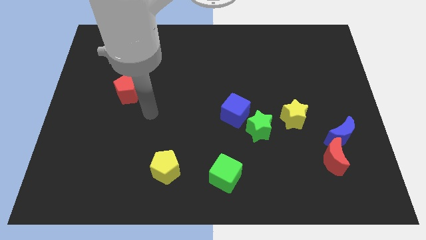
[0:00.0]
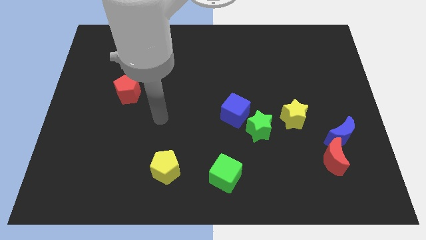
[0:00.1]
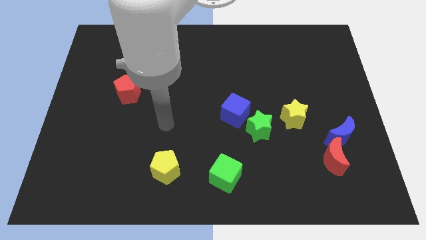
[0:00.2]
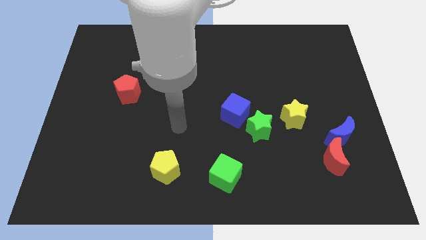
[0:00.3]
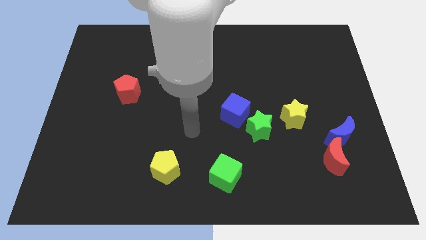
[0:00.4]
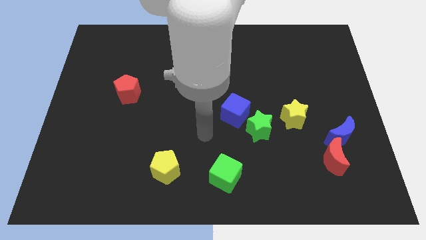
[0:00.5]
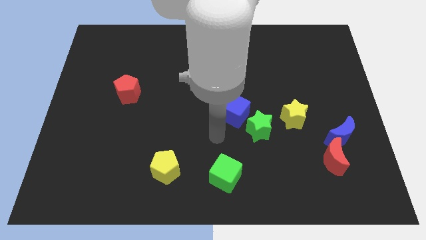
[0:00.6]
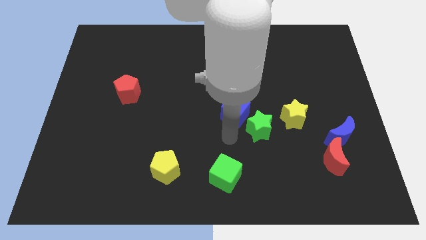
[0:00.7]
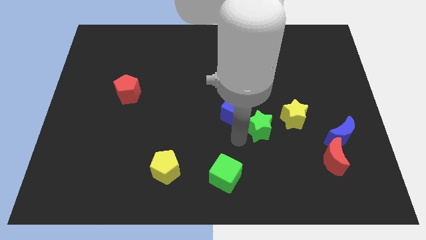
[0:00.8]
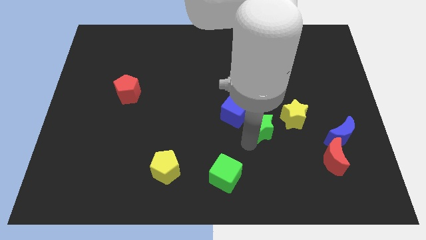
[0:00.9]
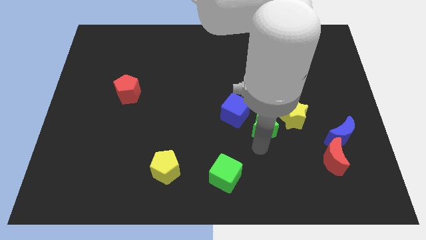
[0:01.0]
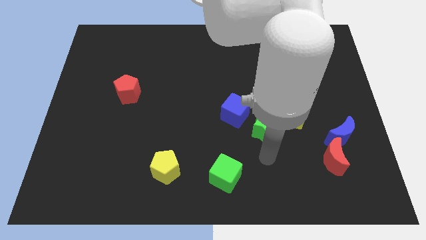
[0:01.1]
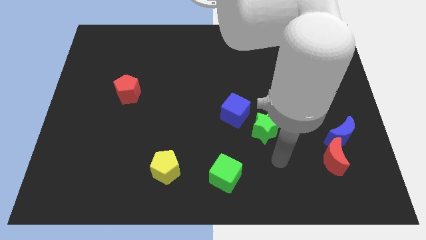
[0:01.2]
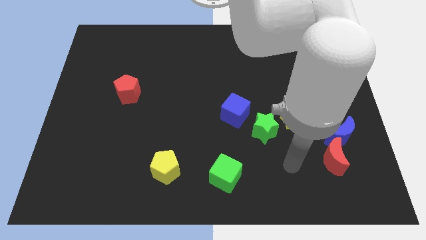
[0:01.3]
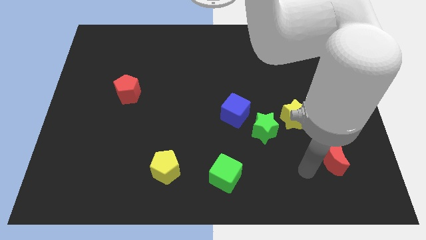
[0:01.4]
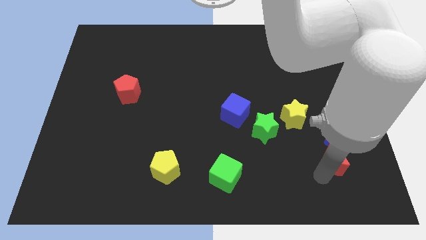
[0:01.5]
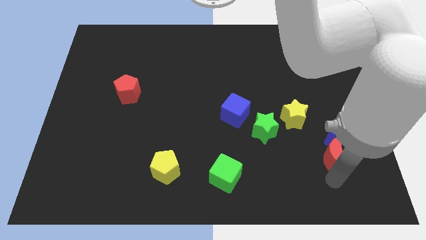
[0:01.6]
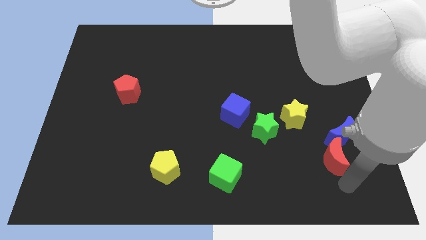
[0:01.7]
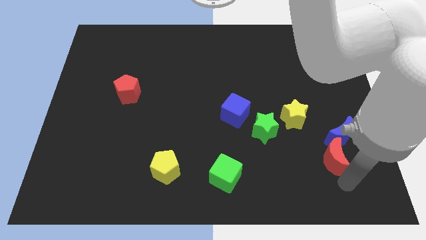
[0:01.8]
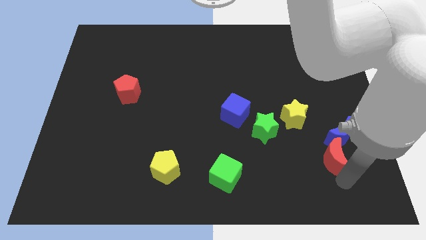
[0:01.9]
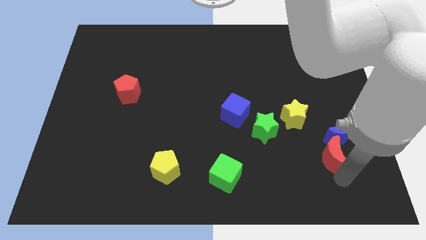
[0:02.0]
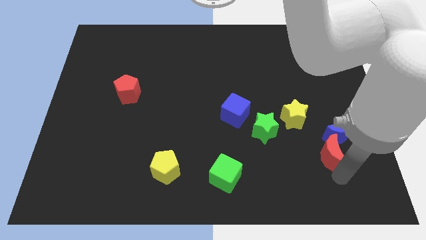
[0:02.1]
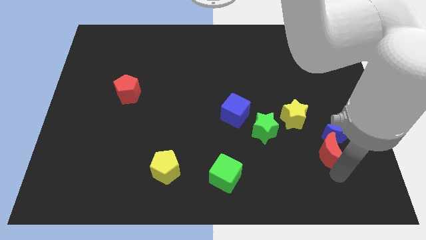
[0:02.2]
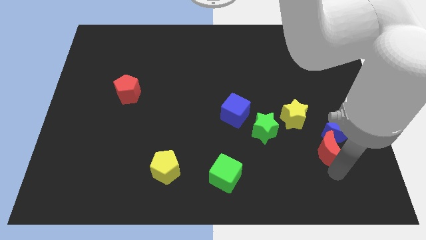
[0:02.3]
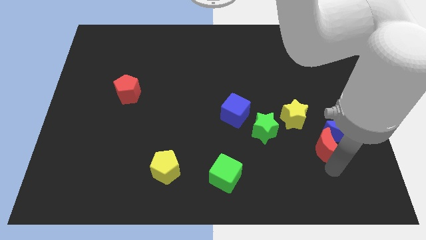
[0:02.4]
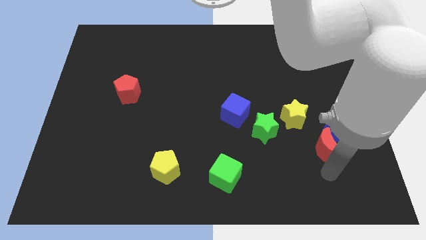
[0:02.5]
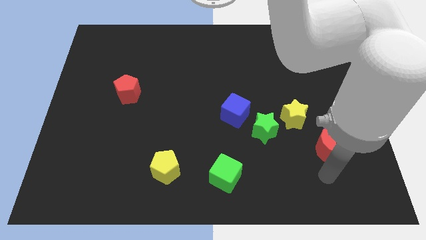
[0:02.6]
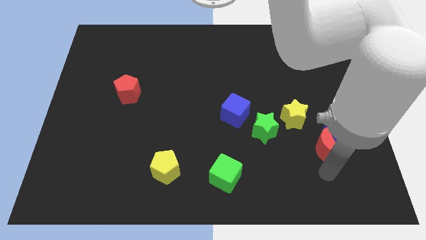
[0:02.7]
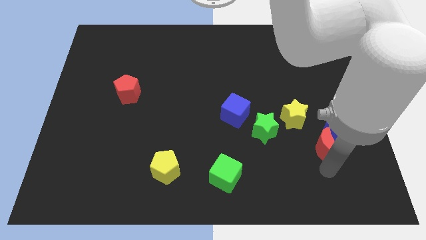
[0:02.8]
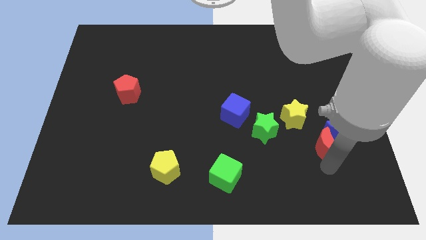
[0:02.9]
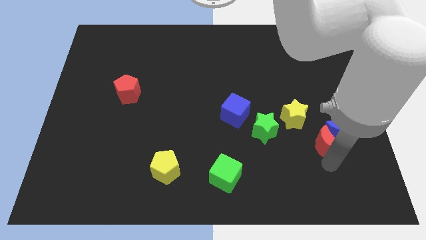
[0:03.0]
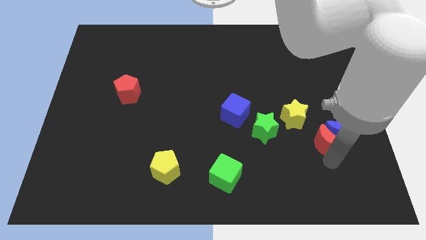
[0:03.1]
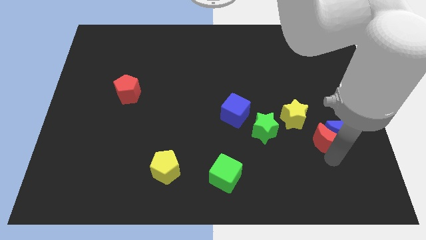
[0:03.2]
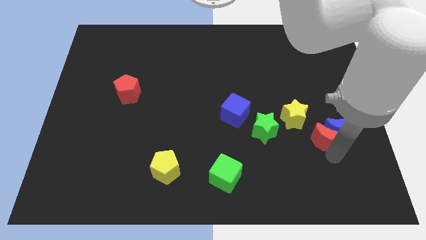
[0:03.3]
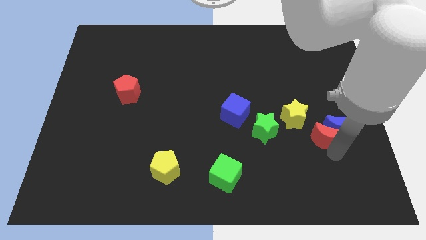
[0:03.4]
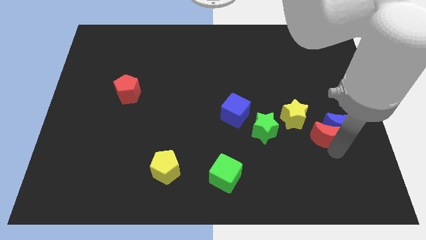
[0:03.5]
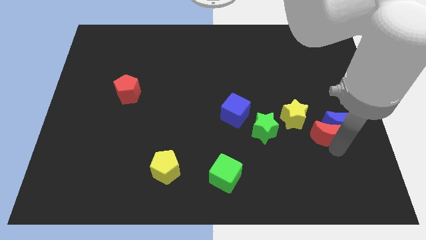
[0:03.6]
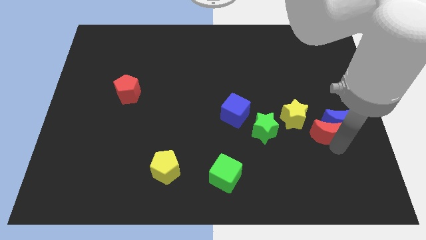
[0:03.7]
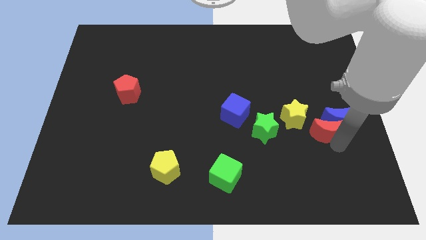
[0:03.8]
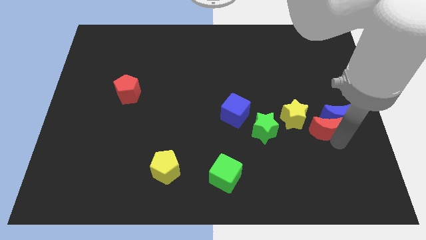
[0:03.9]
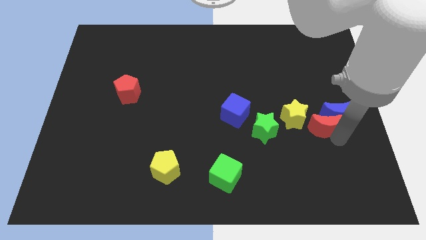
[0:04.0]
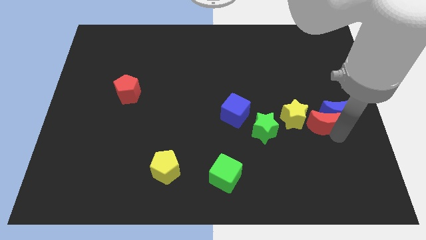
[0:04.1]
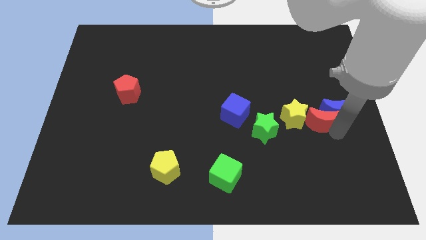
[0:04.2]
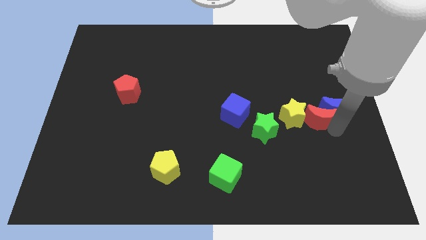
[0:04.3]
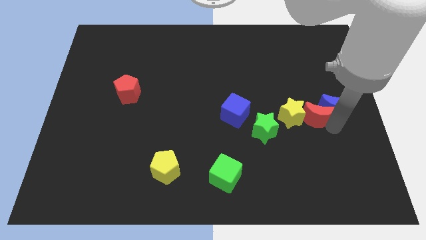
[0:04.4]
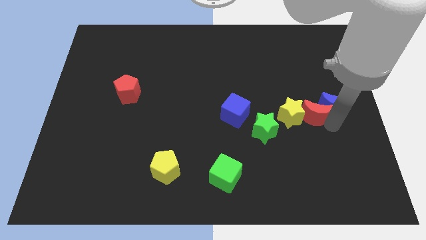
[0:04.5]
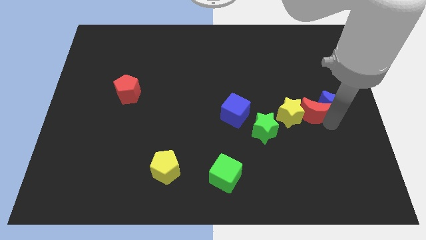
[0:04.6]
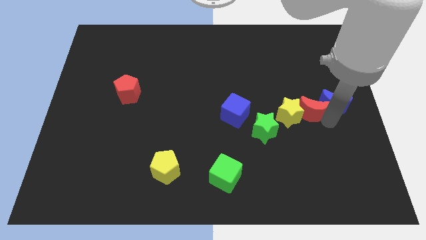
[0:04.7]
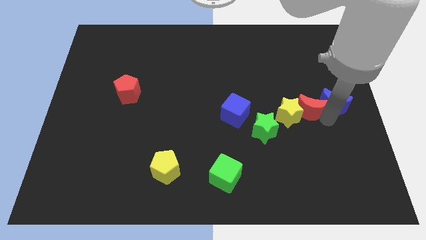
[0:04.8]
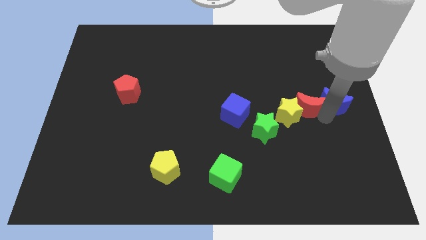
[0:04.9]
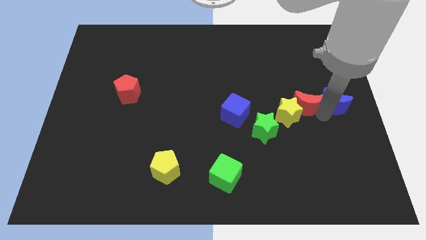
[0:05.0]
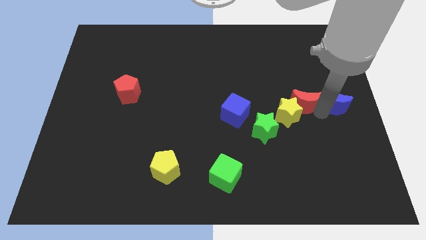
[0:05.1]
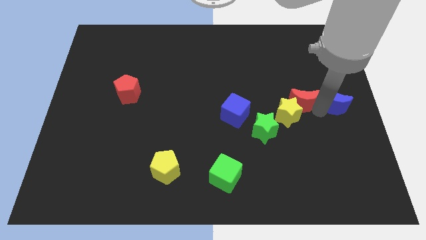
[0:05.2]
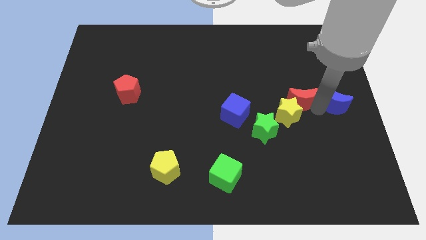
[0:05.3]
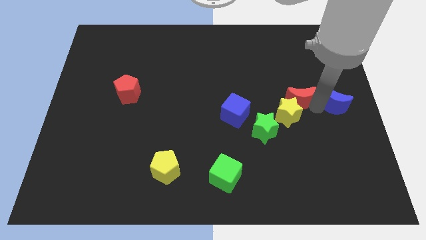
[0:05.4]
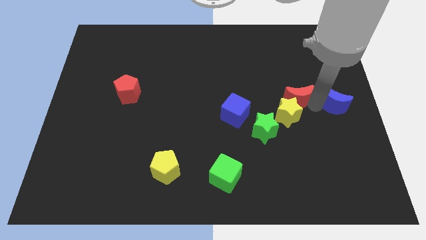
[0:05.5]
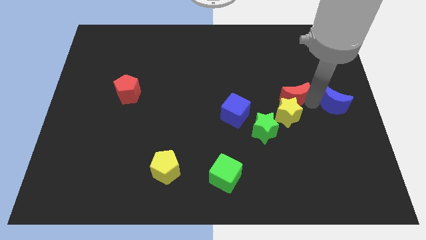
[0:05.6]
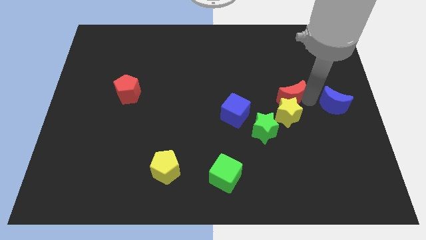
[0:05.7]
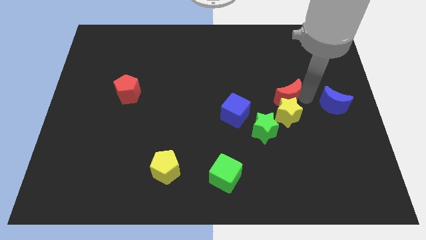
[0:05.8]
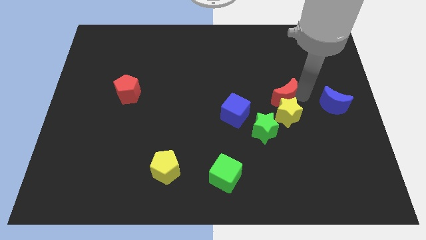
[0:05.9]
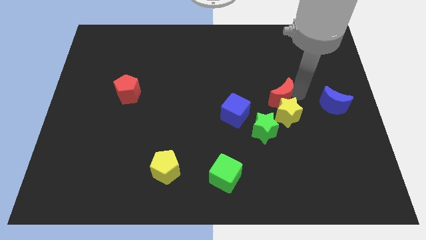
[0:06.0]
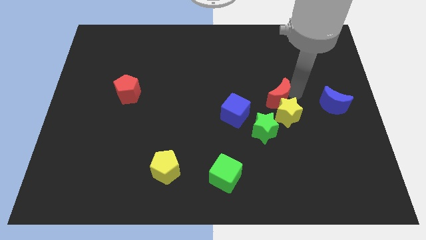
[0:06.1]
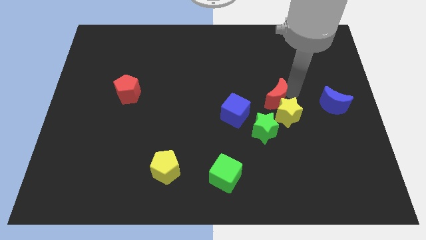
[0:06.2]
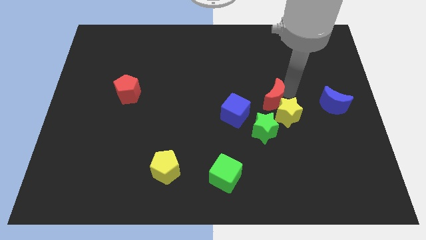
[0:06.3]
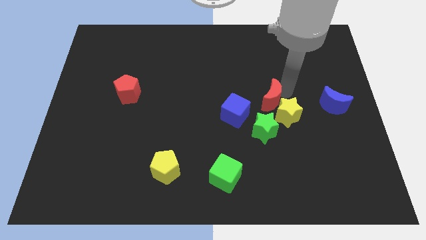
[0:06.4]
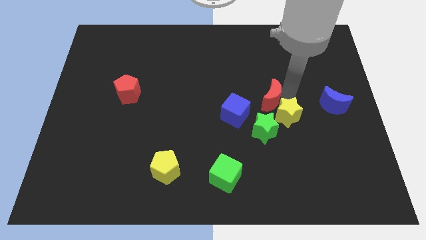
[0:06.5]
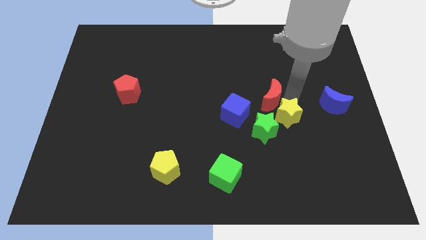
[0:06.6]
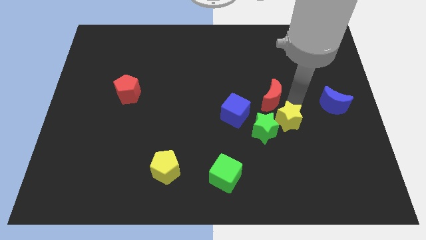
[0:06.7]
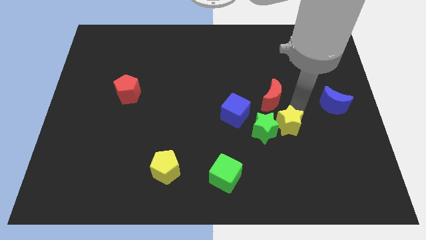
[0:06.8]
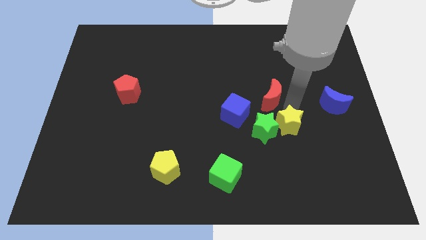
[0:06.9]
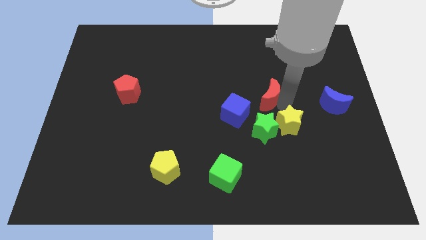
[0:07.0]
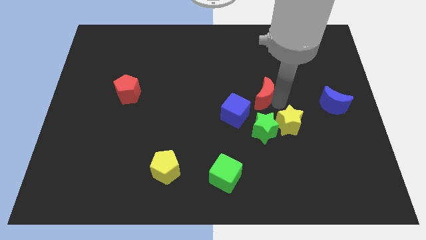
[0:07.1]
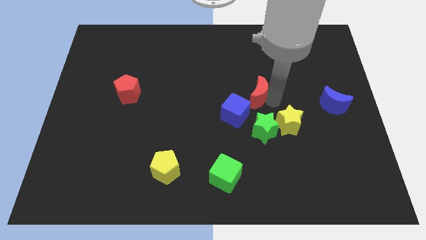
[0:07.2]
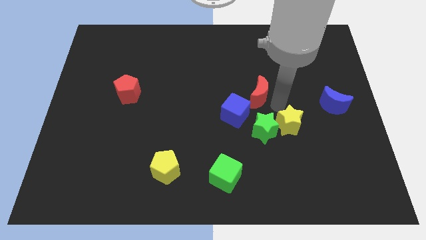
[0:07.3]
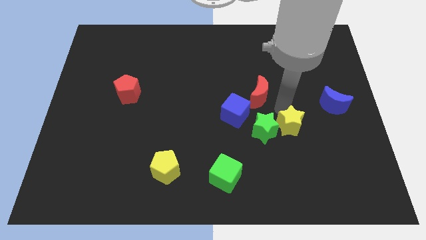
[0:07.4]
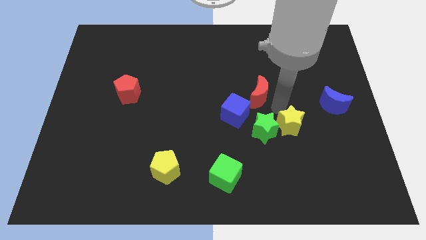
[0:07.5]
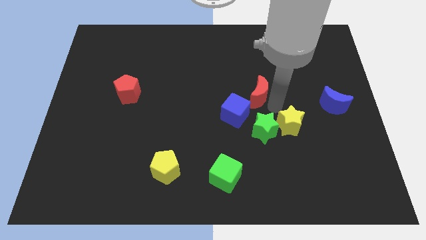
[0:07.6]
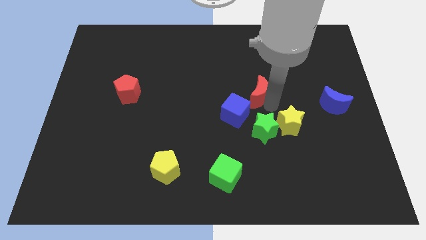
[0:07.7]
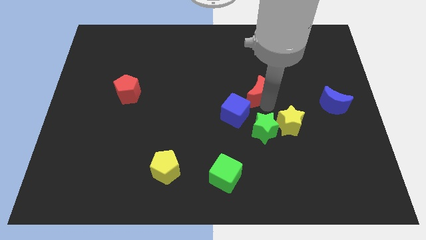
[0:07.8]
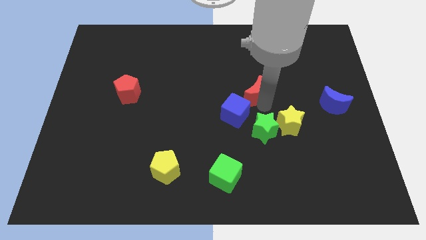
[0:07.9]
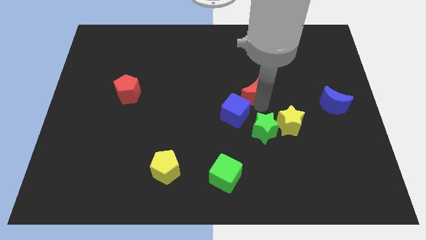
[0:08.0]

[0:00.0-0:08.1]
put the red moon above the blue cube
